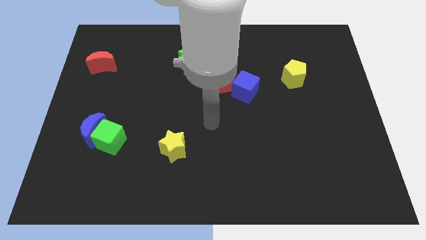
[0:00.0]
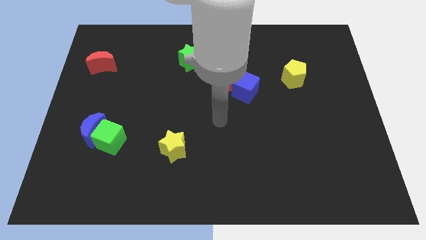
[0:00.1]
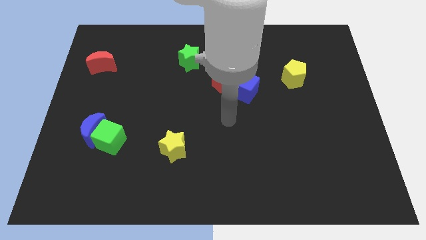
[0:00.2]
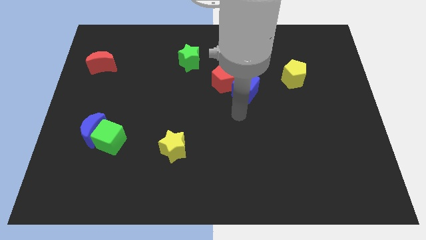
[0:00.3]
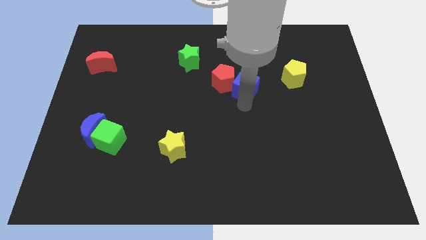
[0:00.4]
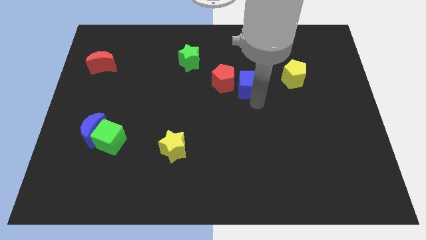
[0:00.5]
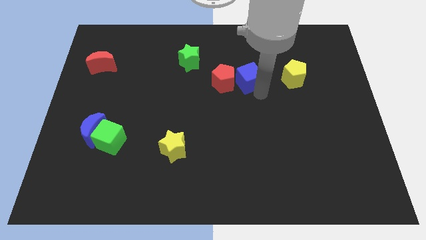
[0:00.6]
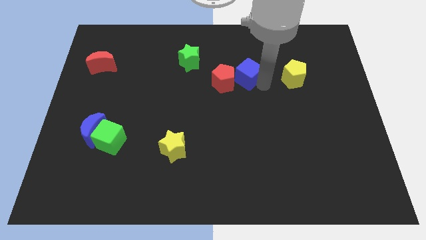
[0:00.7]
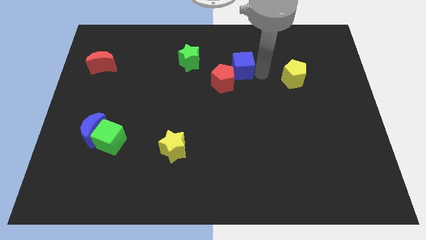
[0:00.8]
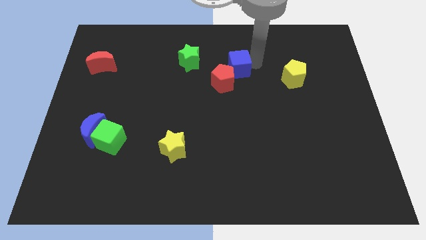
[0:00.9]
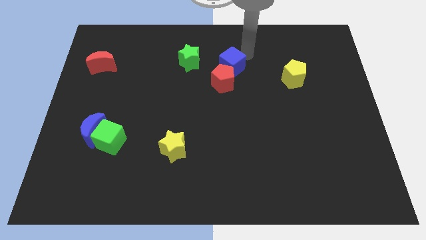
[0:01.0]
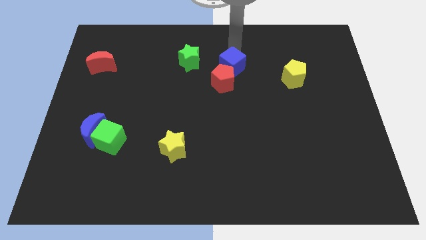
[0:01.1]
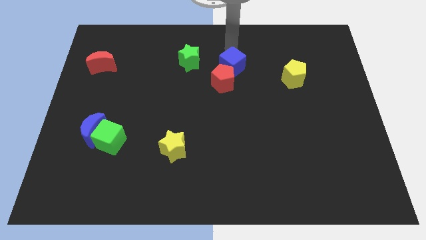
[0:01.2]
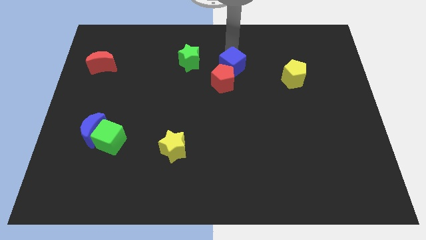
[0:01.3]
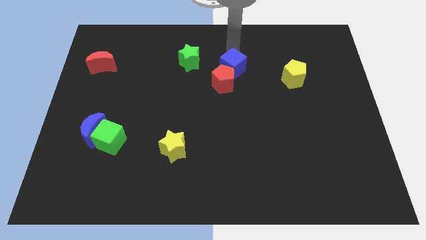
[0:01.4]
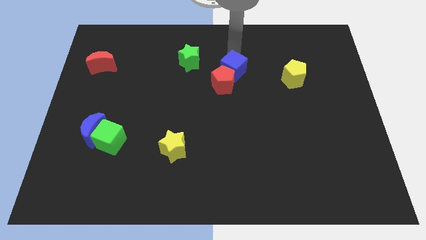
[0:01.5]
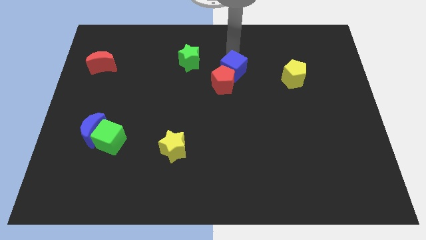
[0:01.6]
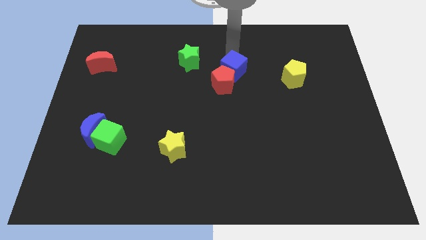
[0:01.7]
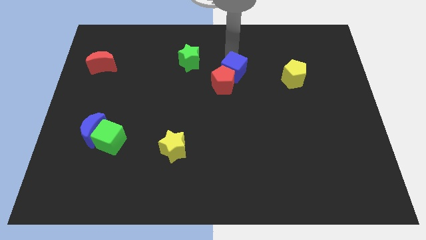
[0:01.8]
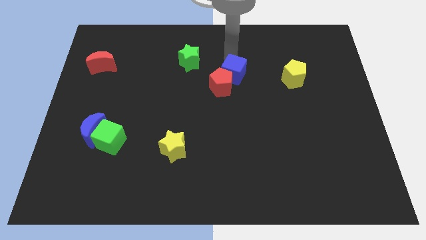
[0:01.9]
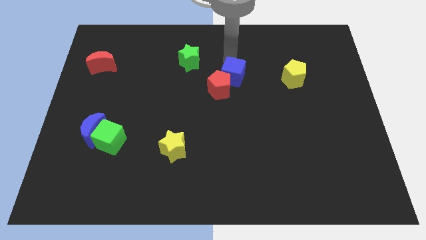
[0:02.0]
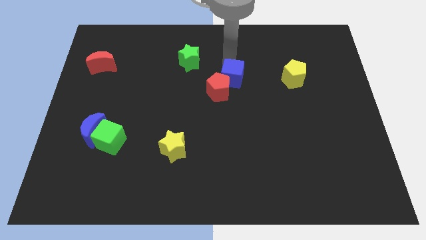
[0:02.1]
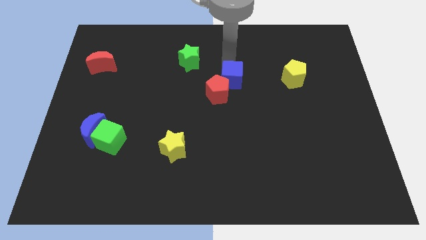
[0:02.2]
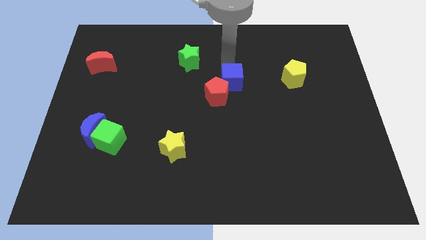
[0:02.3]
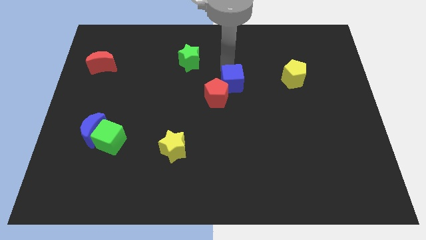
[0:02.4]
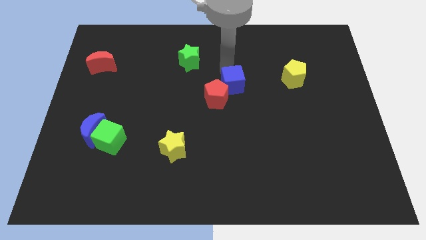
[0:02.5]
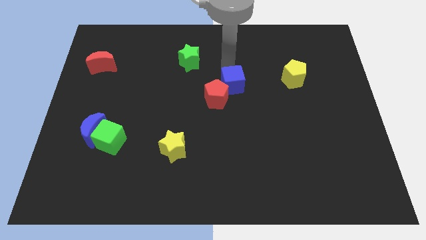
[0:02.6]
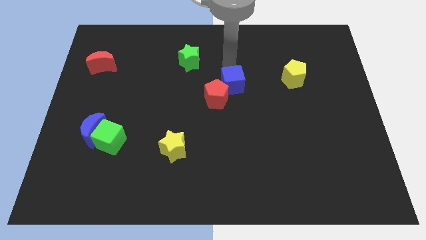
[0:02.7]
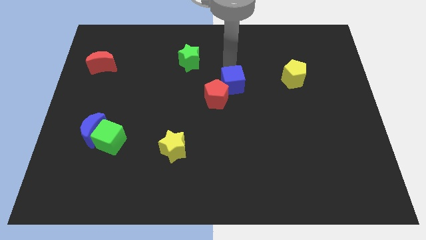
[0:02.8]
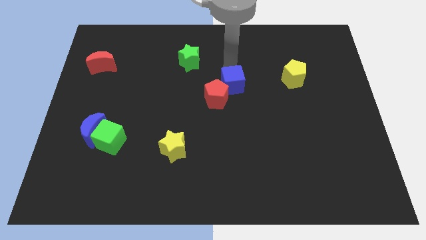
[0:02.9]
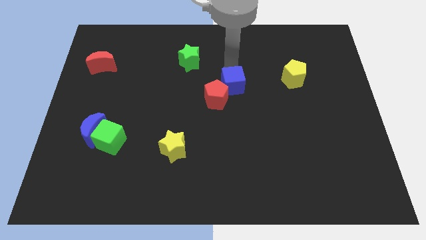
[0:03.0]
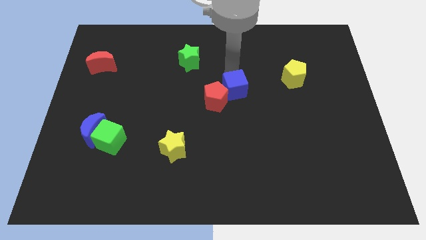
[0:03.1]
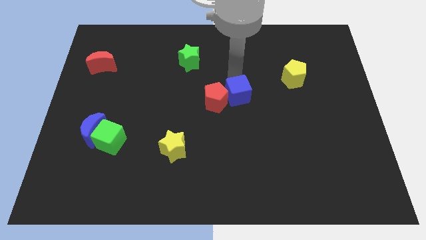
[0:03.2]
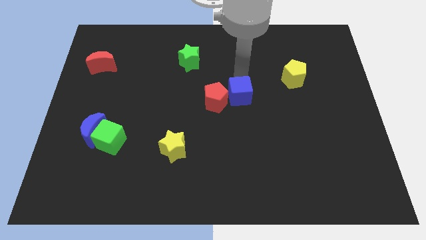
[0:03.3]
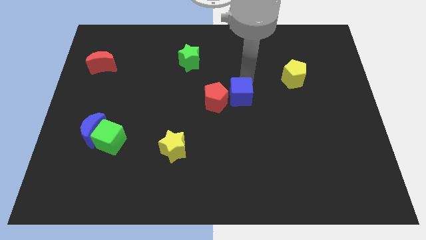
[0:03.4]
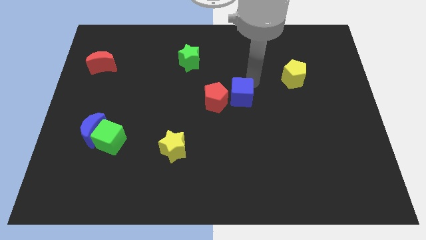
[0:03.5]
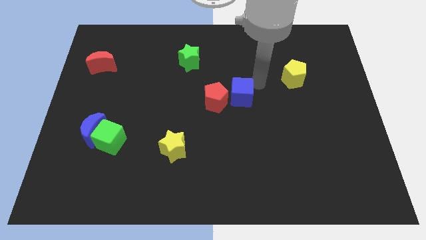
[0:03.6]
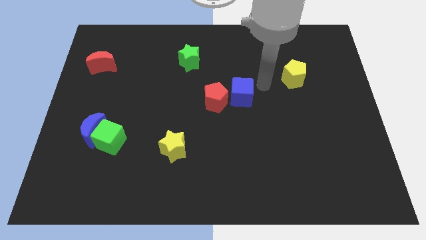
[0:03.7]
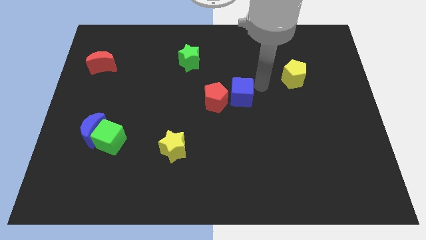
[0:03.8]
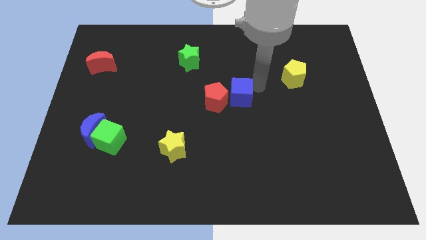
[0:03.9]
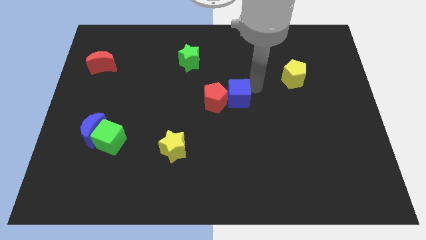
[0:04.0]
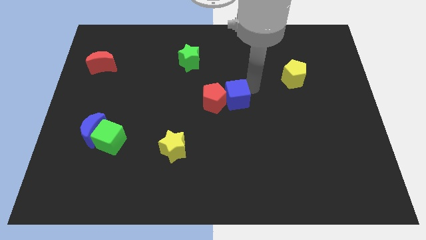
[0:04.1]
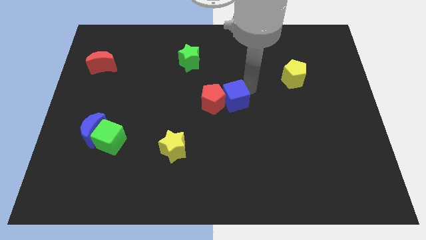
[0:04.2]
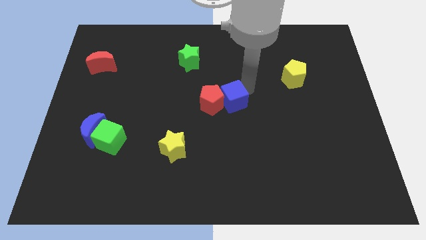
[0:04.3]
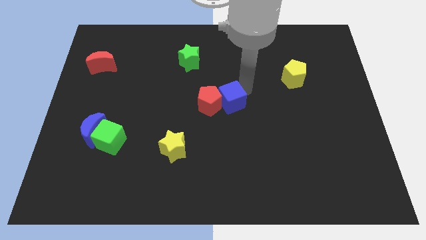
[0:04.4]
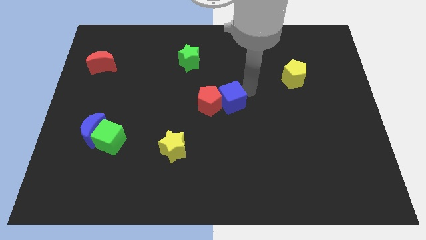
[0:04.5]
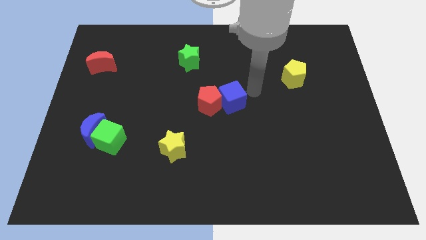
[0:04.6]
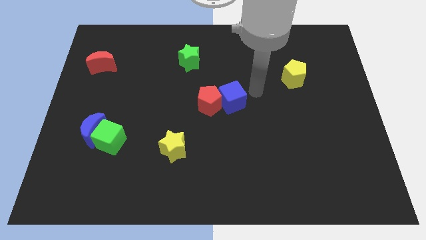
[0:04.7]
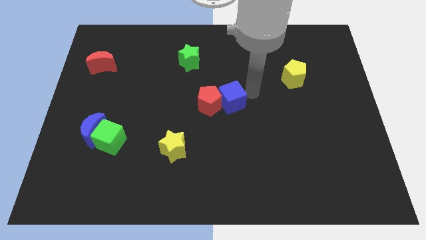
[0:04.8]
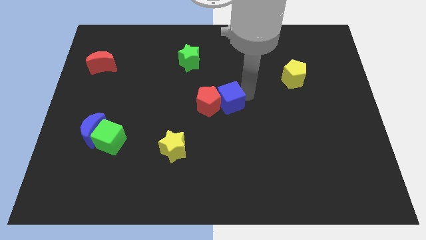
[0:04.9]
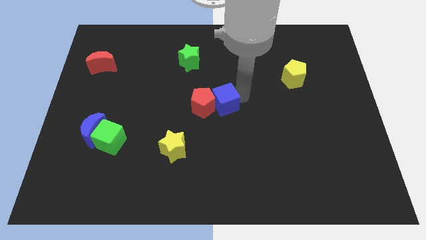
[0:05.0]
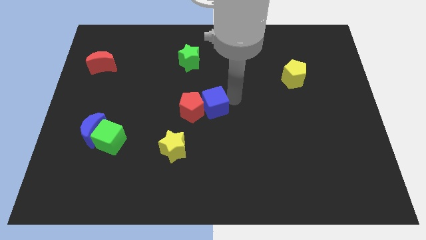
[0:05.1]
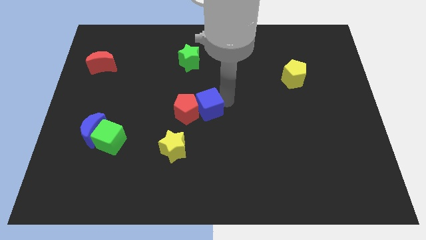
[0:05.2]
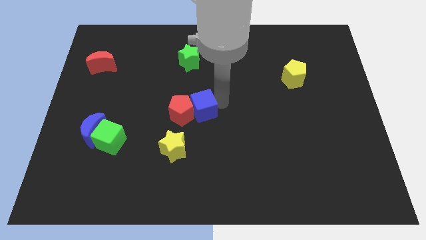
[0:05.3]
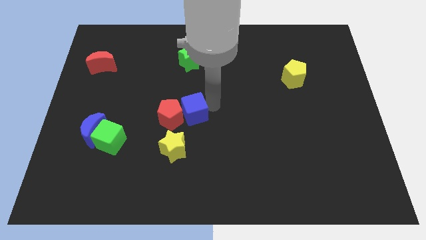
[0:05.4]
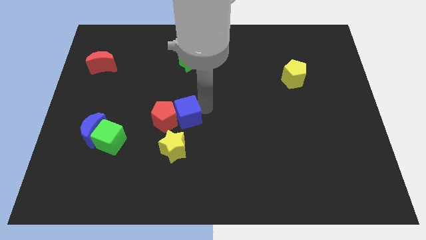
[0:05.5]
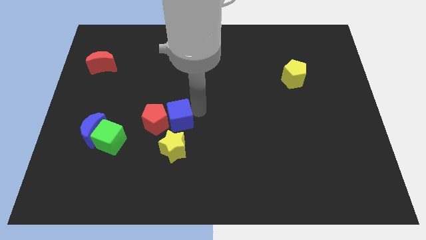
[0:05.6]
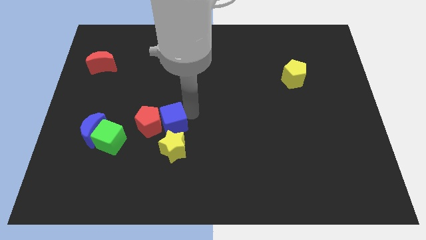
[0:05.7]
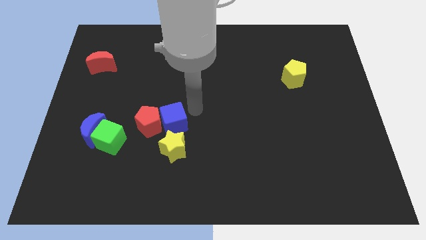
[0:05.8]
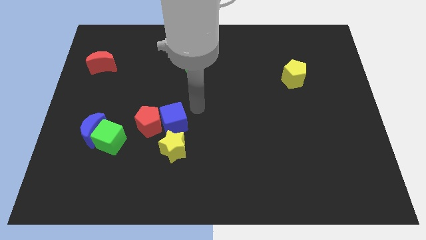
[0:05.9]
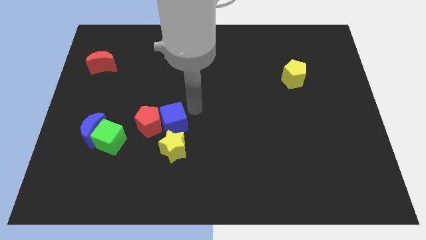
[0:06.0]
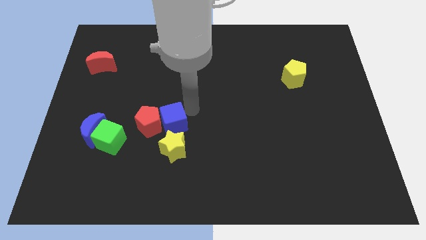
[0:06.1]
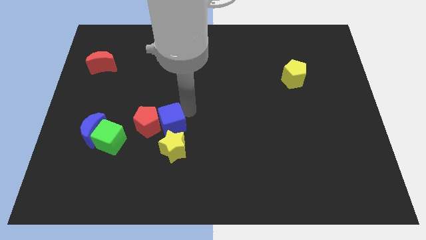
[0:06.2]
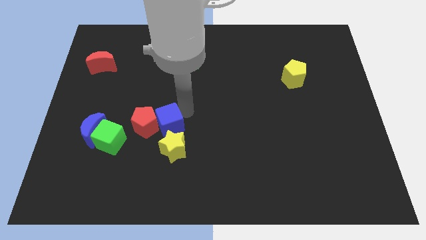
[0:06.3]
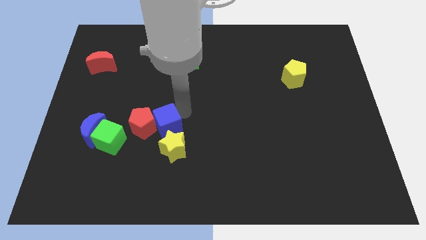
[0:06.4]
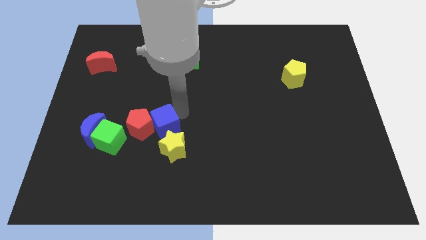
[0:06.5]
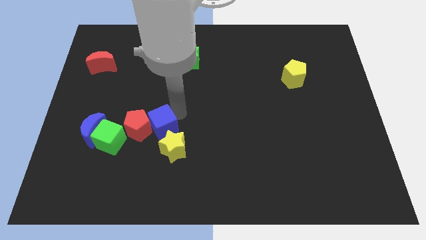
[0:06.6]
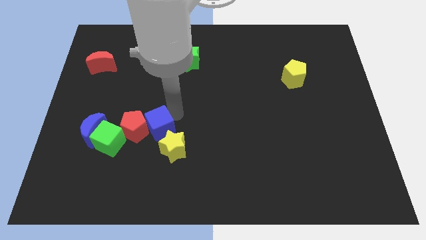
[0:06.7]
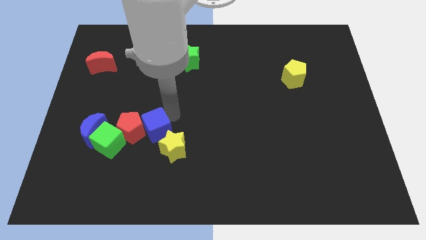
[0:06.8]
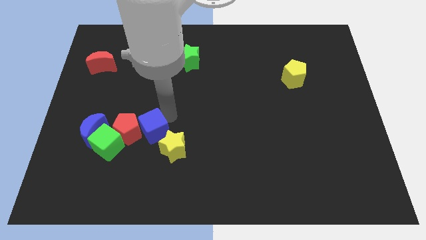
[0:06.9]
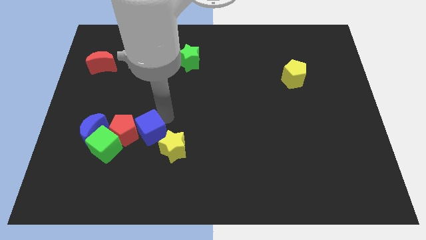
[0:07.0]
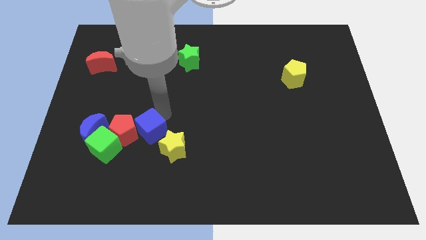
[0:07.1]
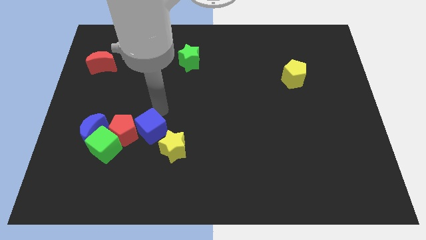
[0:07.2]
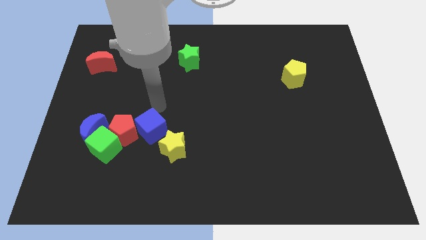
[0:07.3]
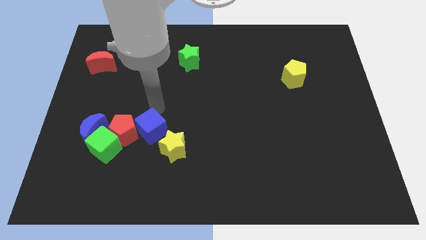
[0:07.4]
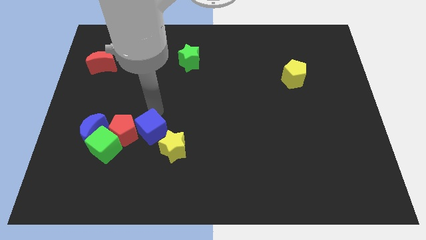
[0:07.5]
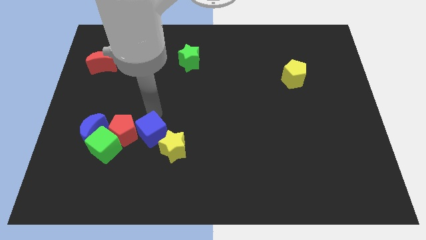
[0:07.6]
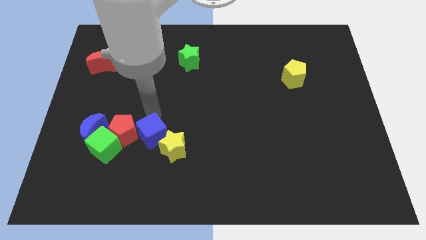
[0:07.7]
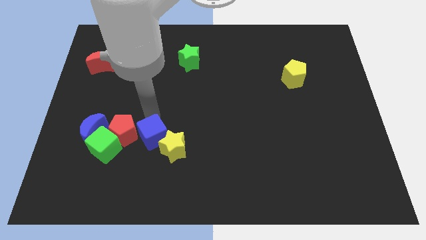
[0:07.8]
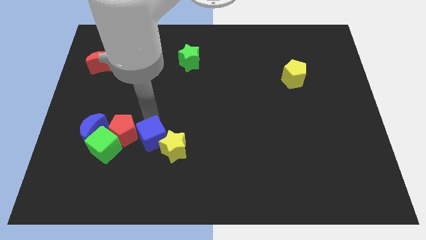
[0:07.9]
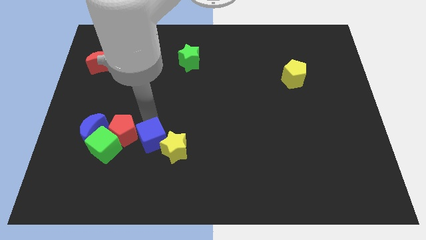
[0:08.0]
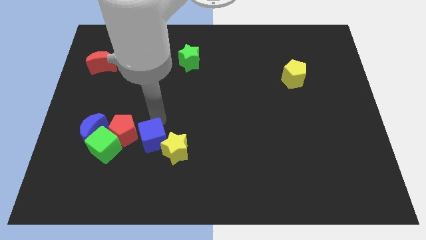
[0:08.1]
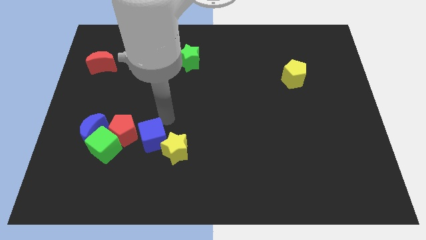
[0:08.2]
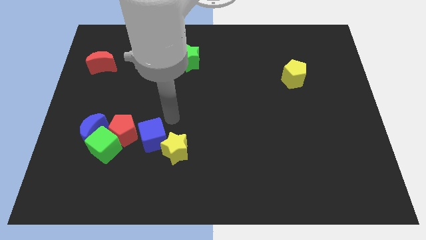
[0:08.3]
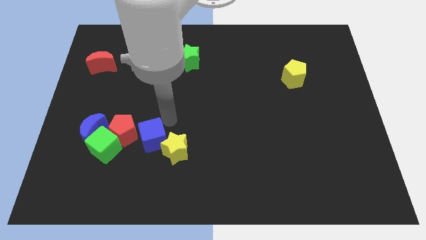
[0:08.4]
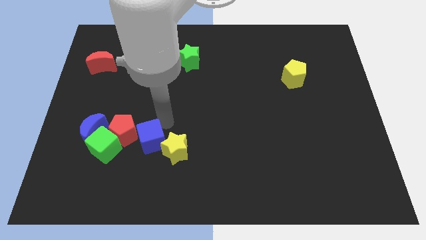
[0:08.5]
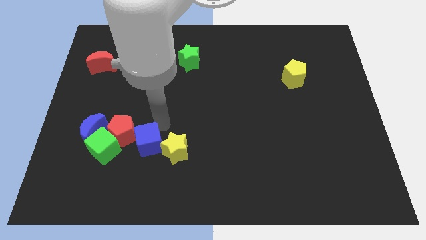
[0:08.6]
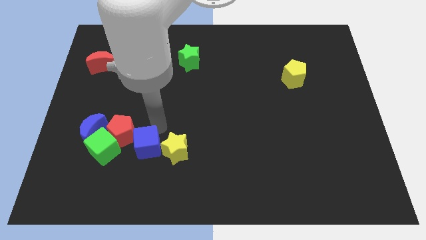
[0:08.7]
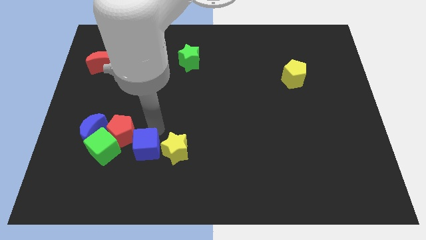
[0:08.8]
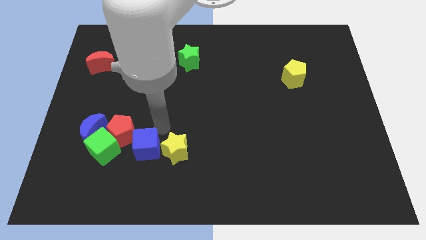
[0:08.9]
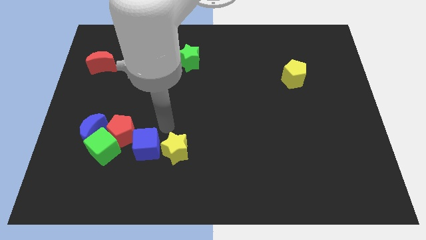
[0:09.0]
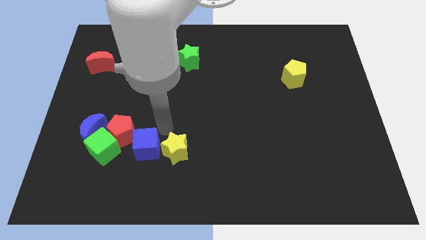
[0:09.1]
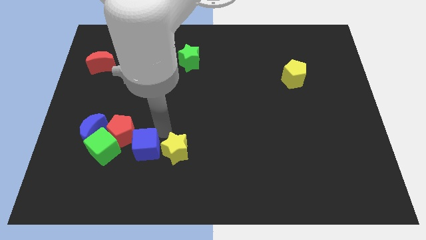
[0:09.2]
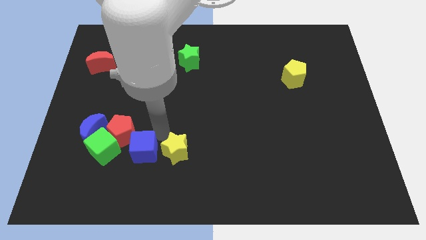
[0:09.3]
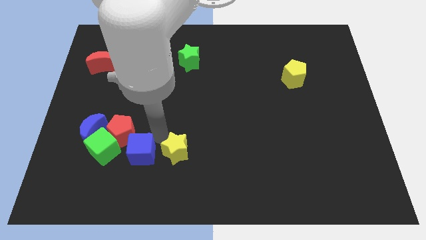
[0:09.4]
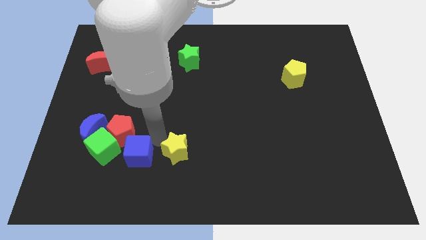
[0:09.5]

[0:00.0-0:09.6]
slide the blue cube diagonally down and to the right of the green cube
